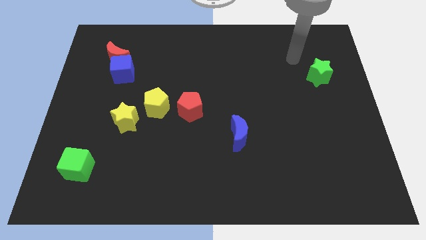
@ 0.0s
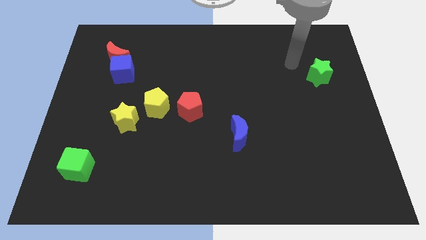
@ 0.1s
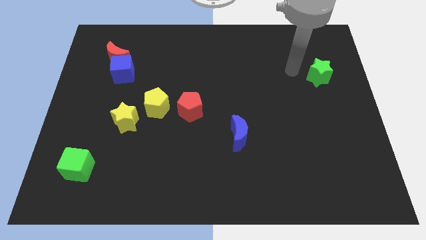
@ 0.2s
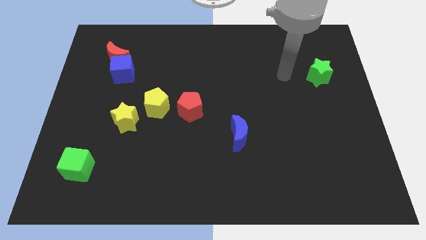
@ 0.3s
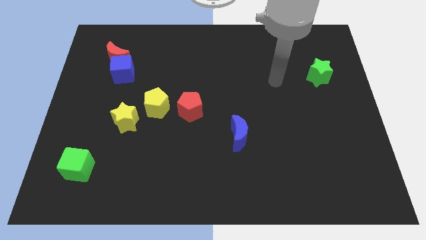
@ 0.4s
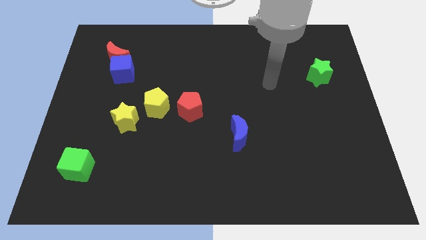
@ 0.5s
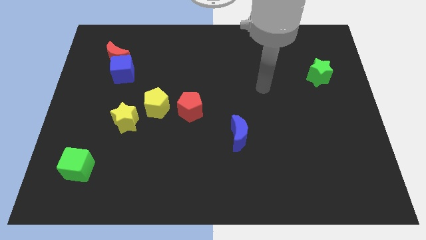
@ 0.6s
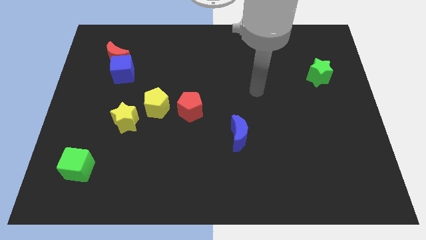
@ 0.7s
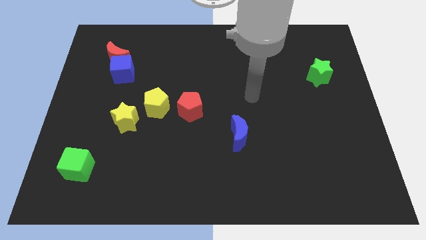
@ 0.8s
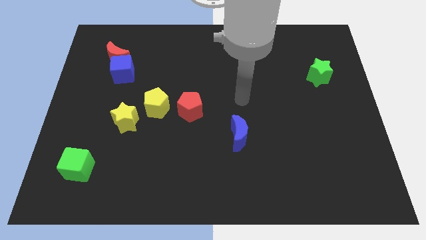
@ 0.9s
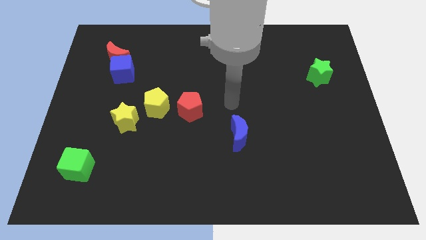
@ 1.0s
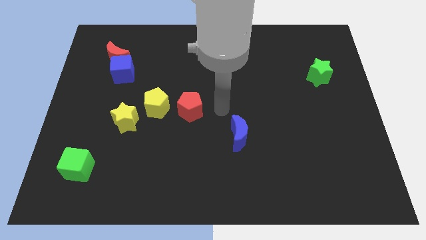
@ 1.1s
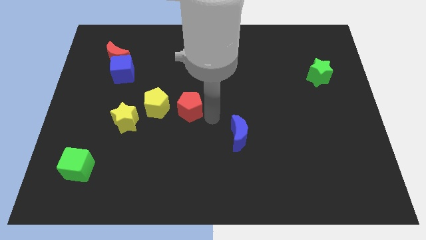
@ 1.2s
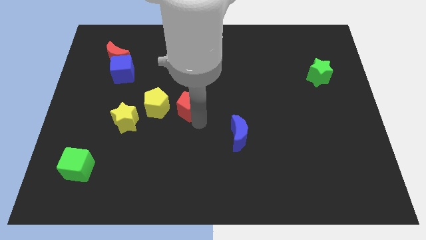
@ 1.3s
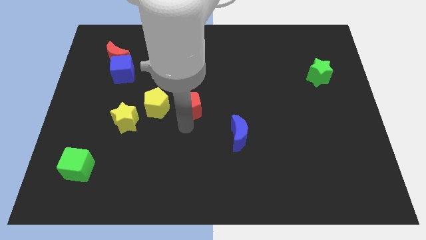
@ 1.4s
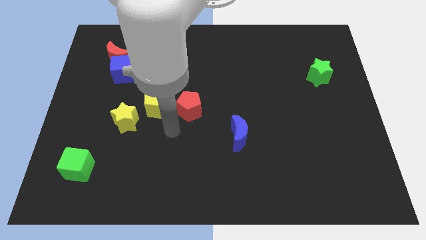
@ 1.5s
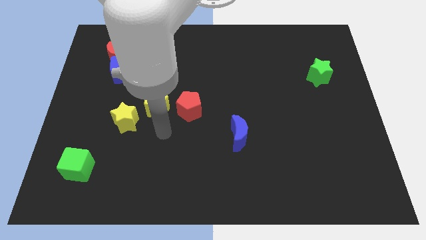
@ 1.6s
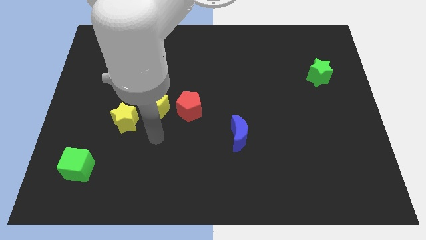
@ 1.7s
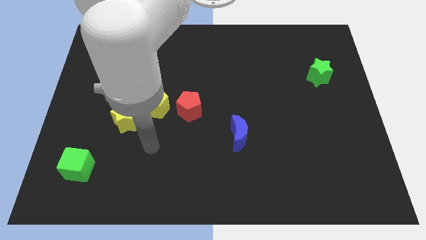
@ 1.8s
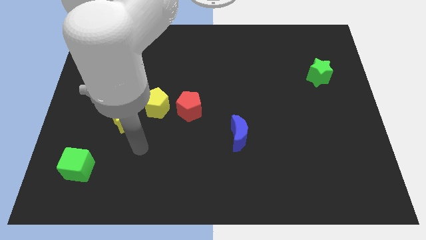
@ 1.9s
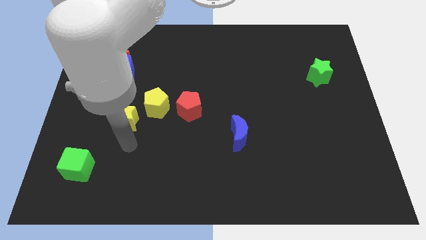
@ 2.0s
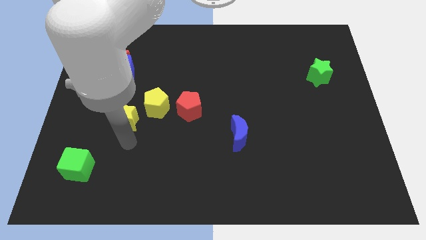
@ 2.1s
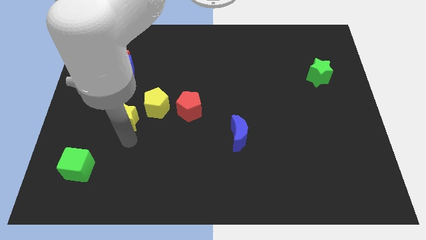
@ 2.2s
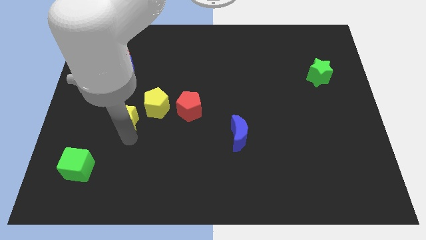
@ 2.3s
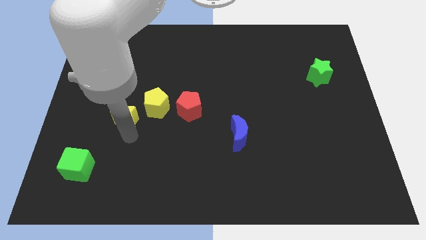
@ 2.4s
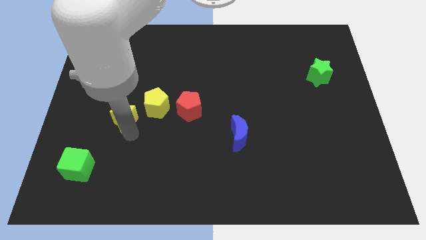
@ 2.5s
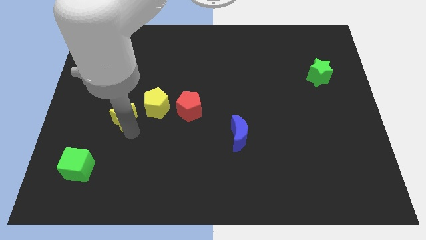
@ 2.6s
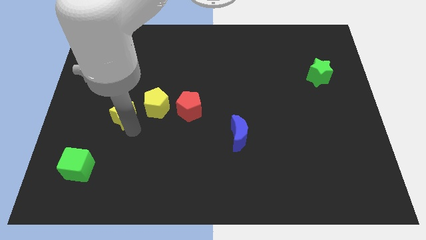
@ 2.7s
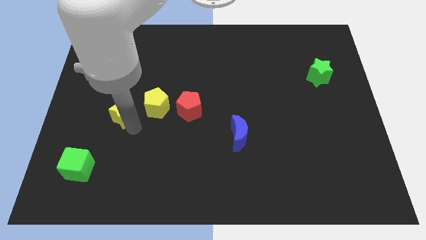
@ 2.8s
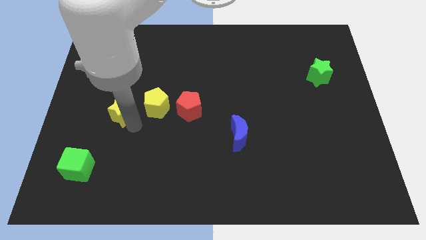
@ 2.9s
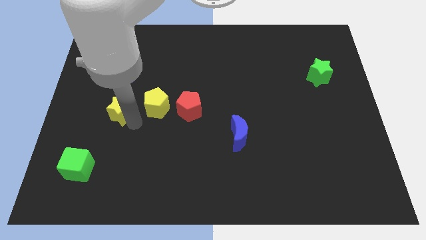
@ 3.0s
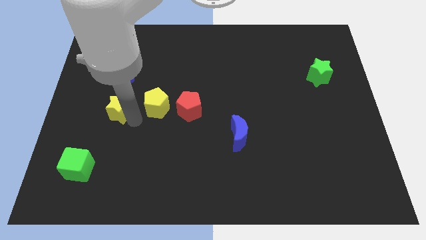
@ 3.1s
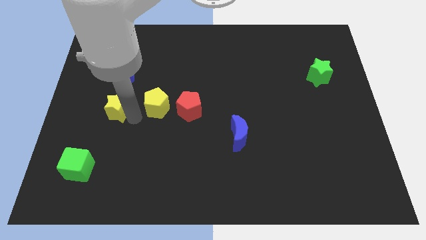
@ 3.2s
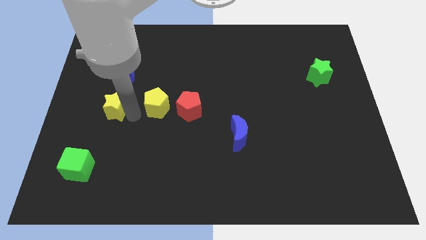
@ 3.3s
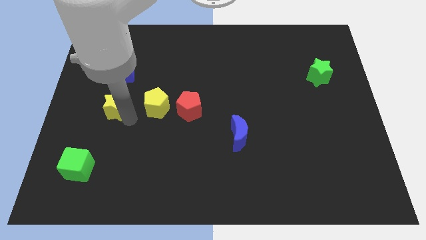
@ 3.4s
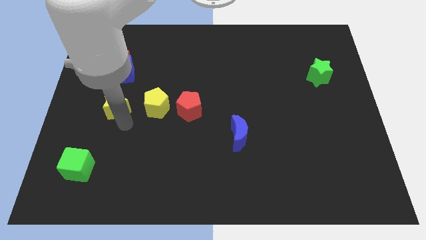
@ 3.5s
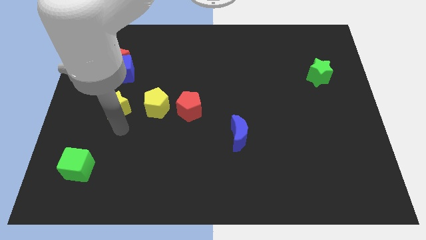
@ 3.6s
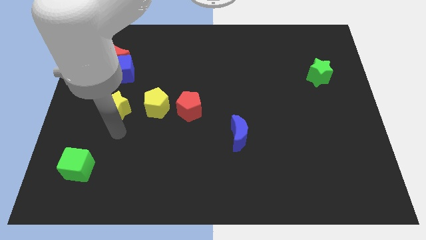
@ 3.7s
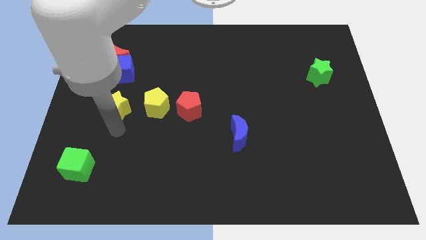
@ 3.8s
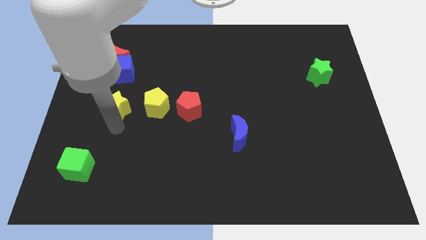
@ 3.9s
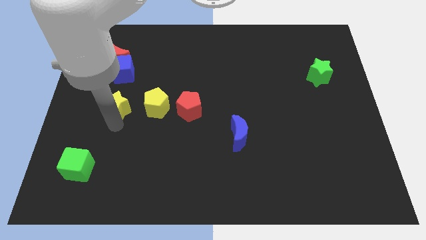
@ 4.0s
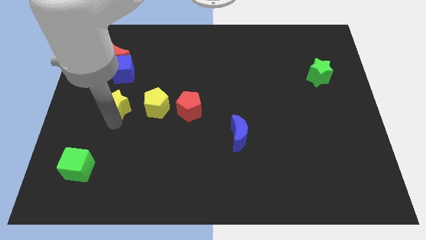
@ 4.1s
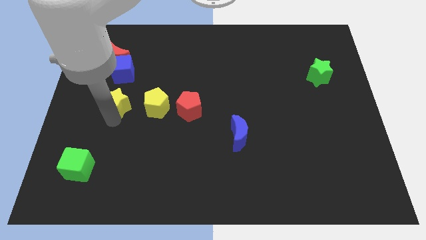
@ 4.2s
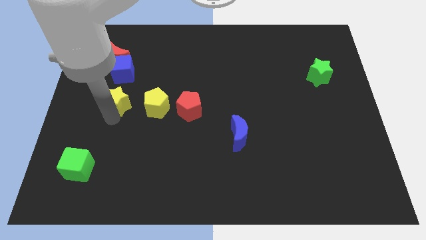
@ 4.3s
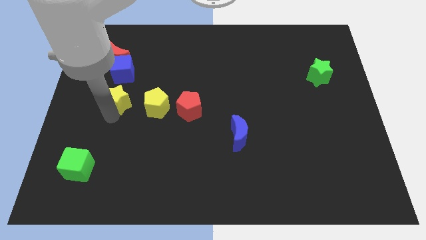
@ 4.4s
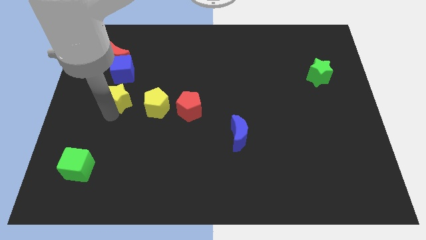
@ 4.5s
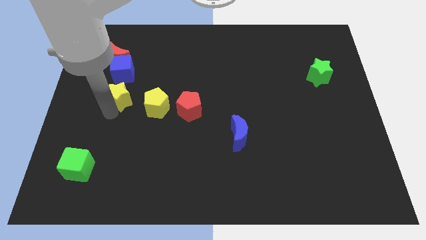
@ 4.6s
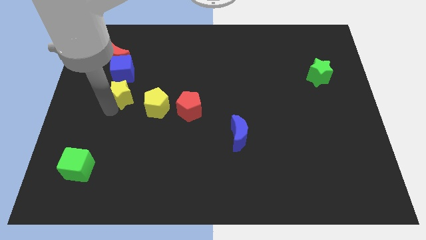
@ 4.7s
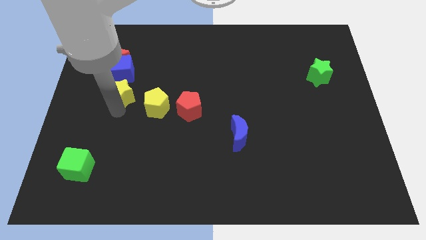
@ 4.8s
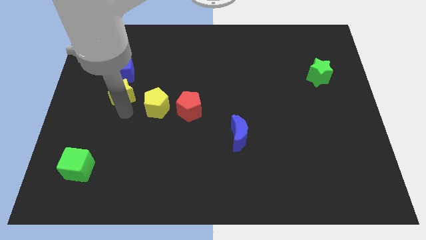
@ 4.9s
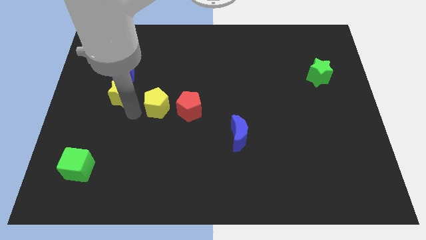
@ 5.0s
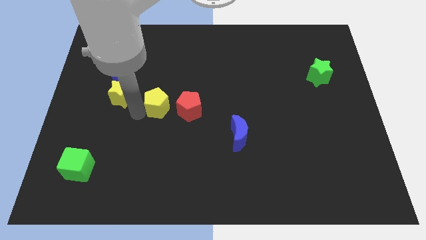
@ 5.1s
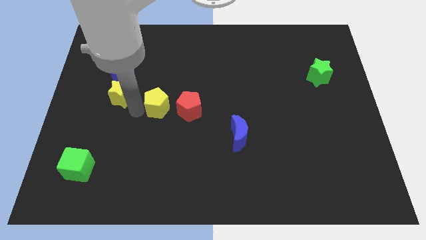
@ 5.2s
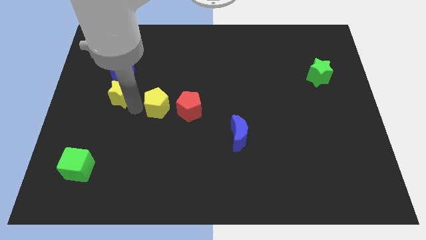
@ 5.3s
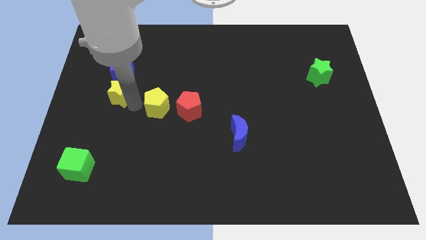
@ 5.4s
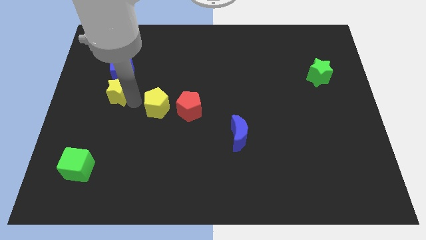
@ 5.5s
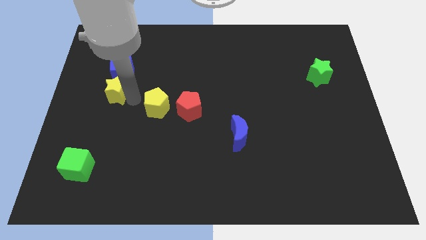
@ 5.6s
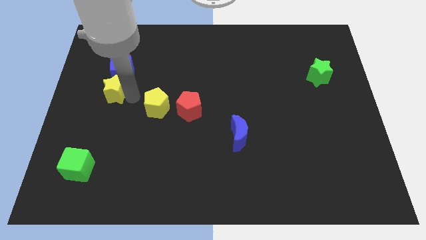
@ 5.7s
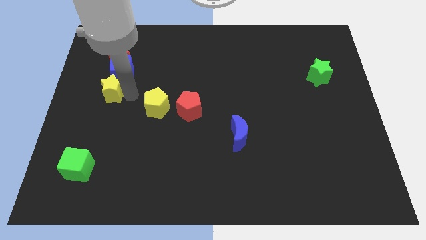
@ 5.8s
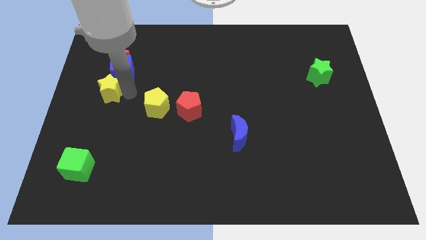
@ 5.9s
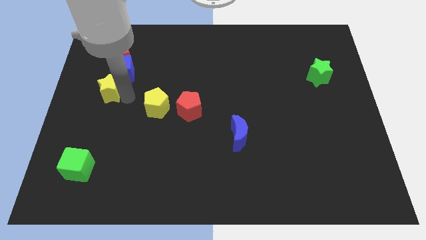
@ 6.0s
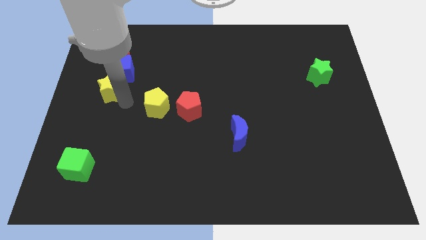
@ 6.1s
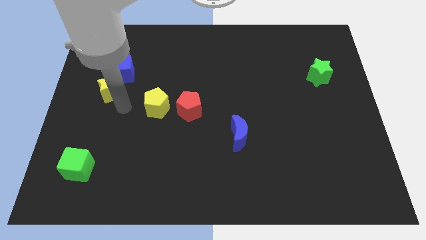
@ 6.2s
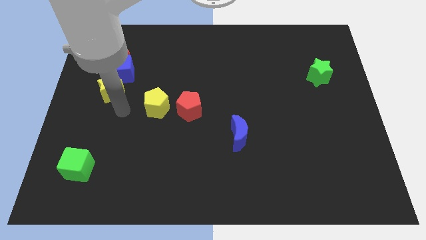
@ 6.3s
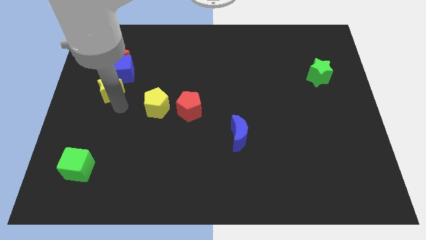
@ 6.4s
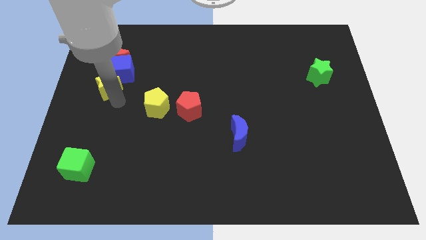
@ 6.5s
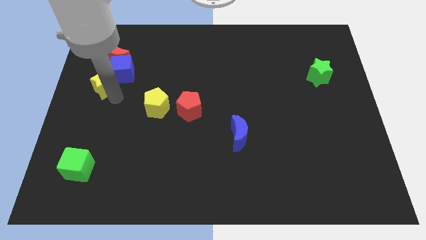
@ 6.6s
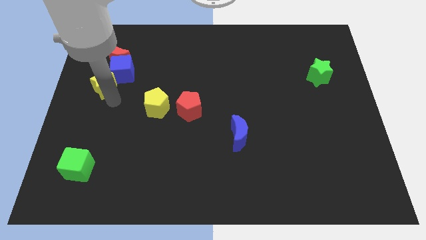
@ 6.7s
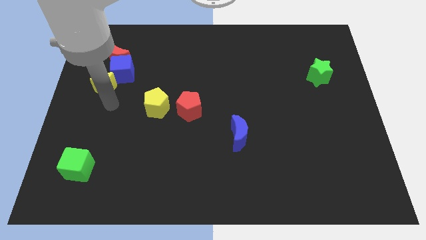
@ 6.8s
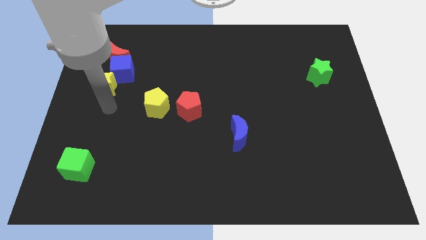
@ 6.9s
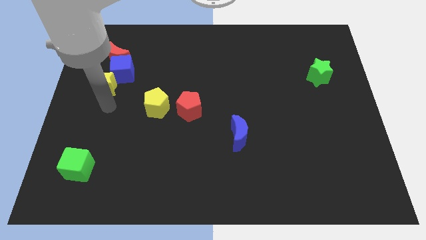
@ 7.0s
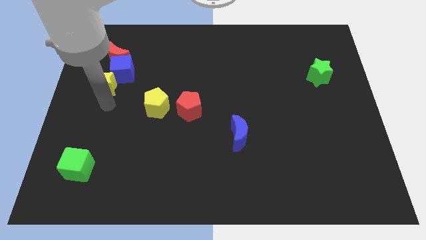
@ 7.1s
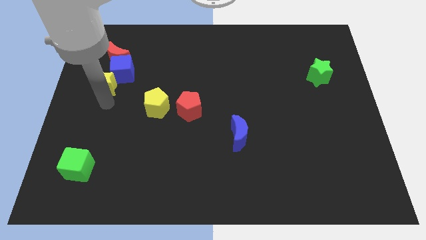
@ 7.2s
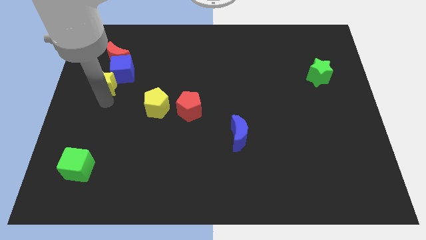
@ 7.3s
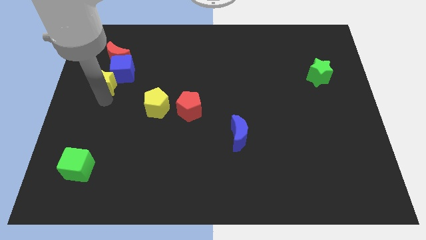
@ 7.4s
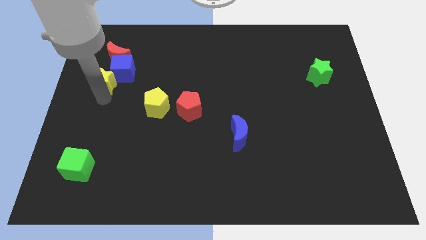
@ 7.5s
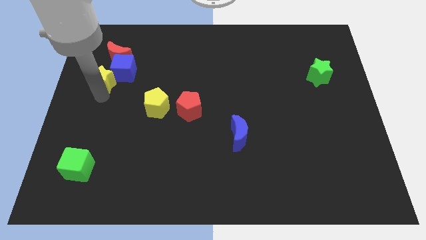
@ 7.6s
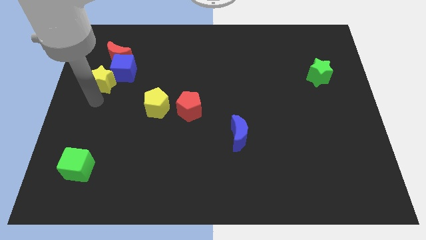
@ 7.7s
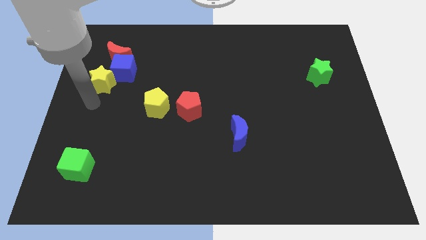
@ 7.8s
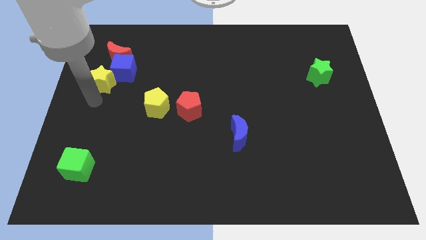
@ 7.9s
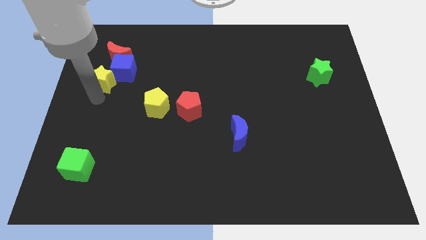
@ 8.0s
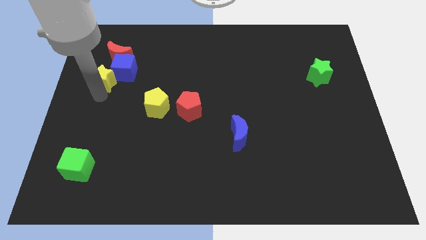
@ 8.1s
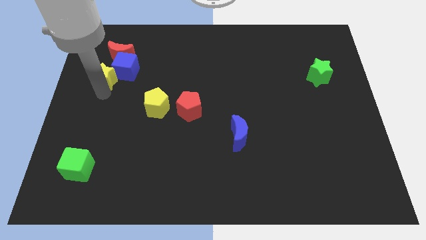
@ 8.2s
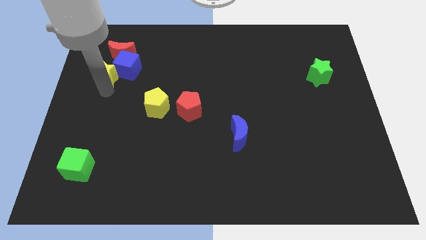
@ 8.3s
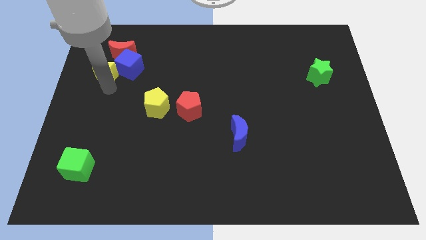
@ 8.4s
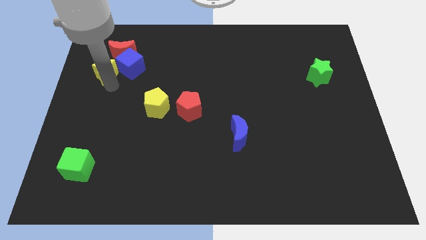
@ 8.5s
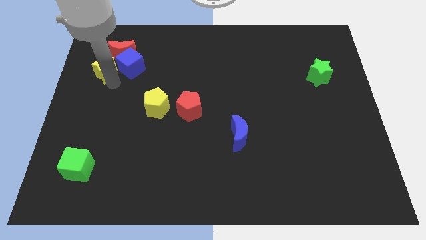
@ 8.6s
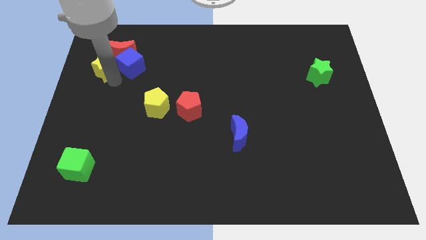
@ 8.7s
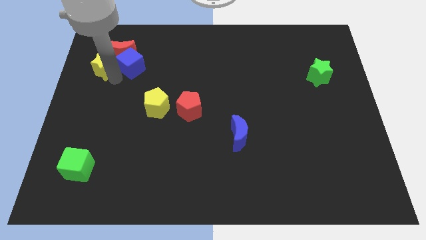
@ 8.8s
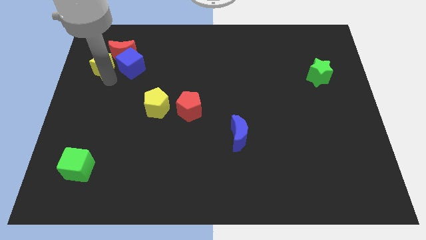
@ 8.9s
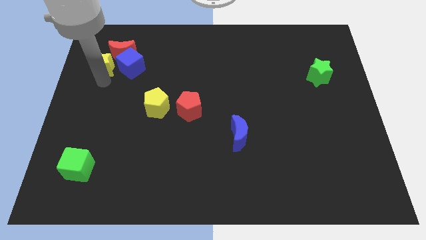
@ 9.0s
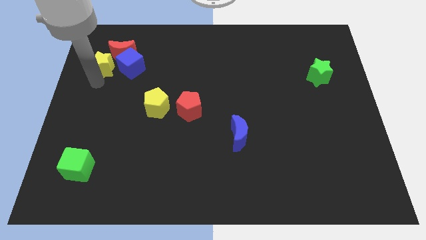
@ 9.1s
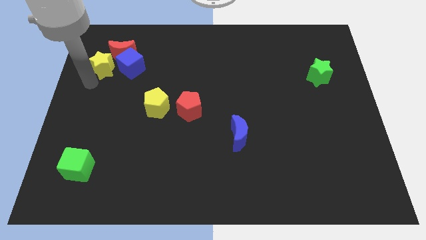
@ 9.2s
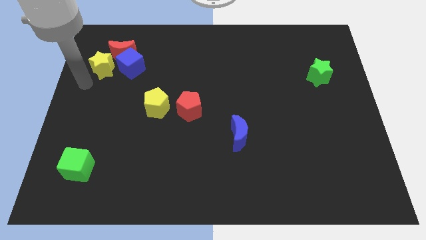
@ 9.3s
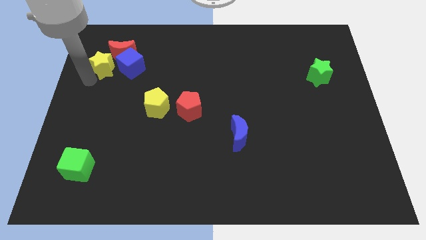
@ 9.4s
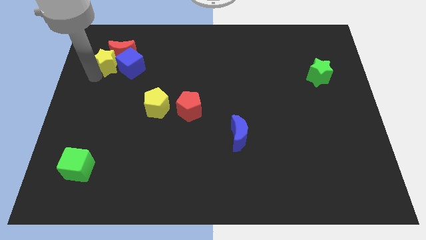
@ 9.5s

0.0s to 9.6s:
put the yellow star close to the red moon
